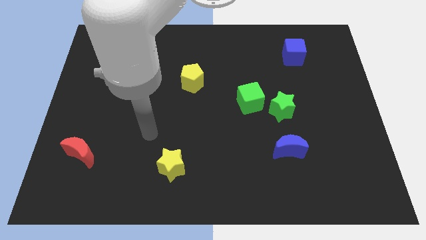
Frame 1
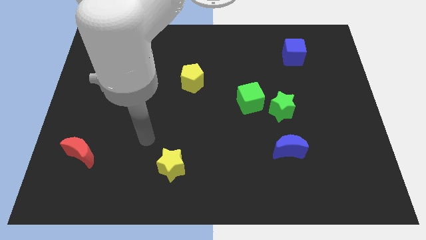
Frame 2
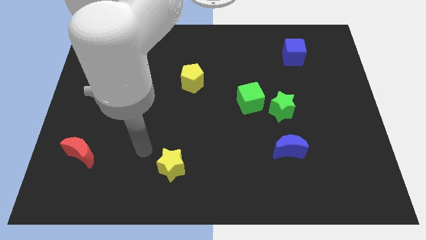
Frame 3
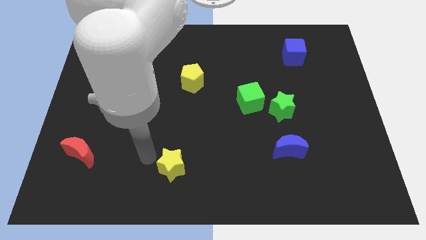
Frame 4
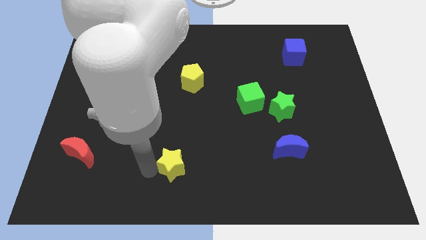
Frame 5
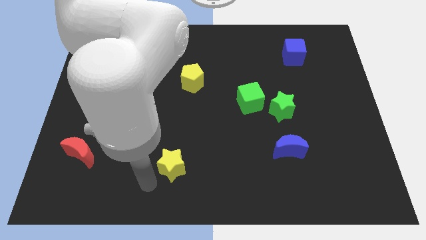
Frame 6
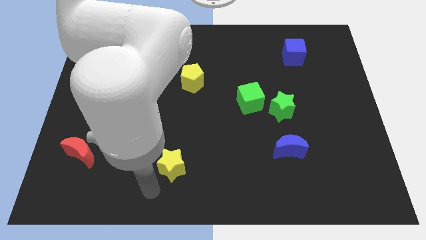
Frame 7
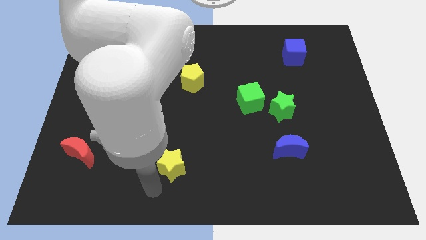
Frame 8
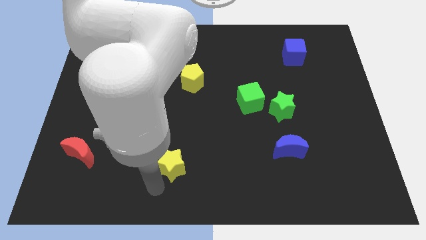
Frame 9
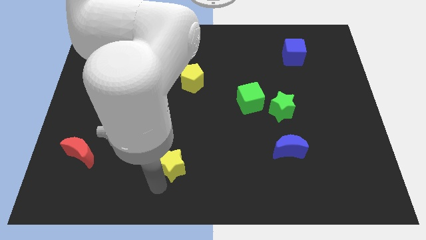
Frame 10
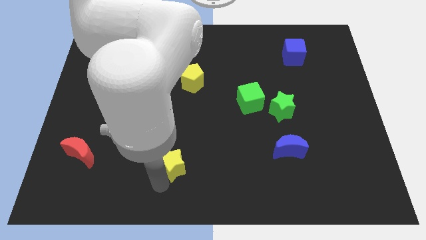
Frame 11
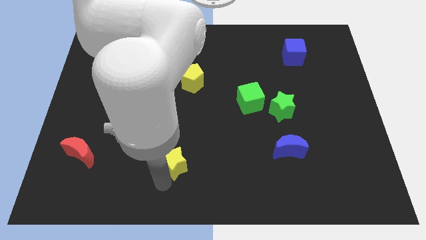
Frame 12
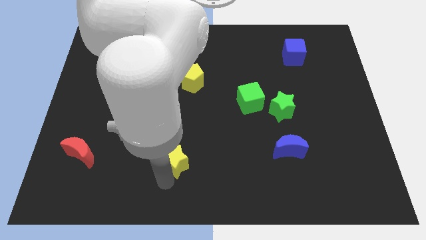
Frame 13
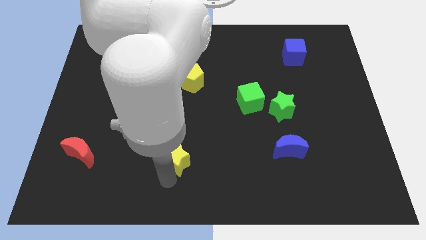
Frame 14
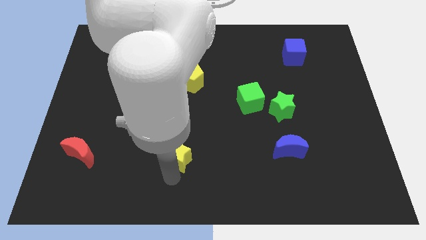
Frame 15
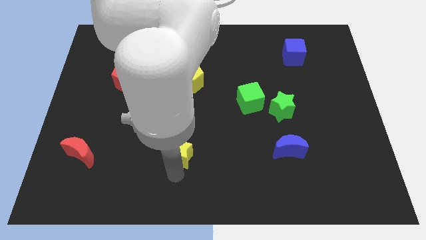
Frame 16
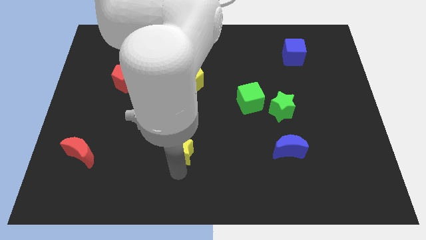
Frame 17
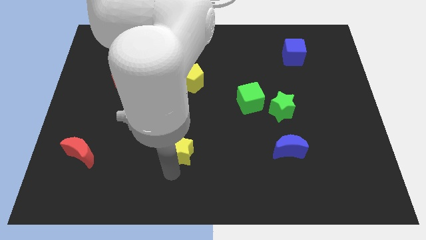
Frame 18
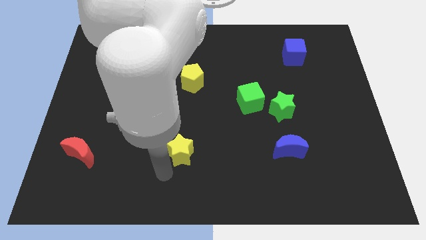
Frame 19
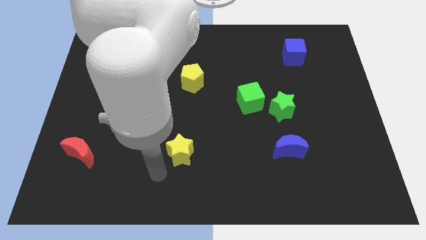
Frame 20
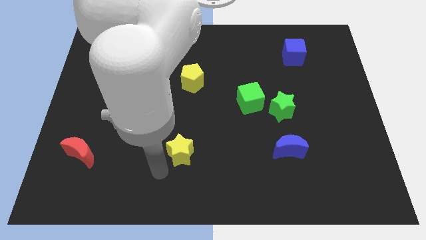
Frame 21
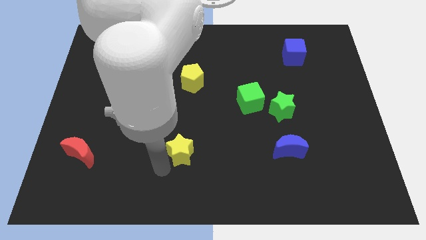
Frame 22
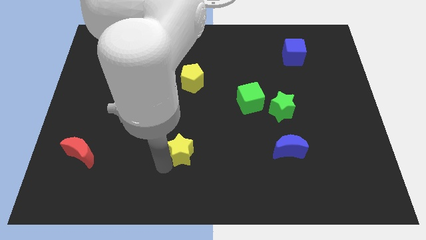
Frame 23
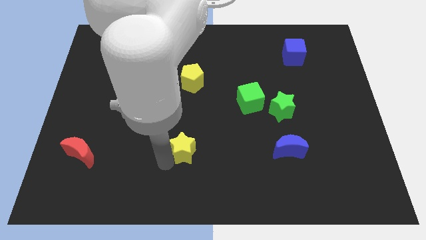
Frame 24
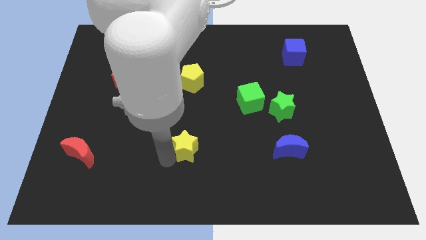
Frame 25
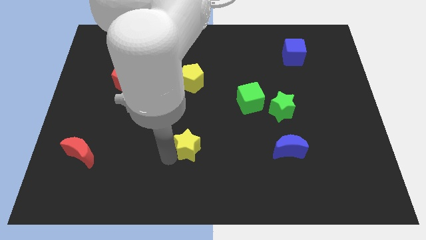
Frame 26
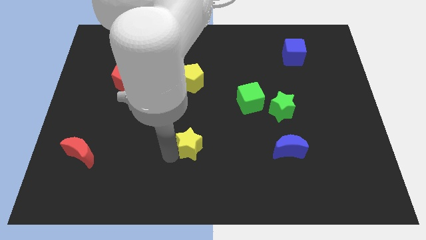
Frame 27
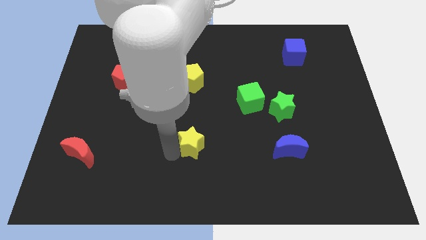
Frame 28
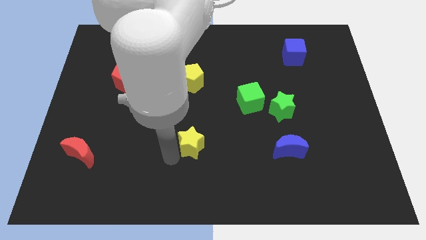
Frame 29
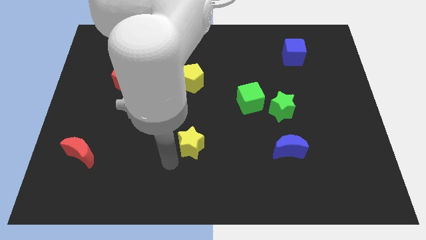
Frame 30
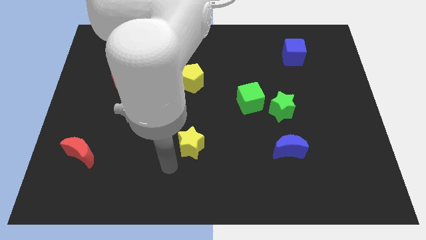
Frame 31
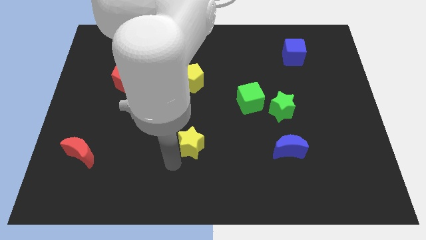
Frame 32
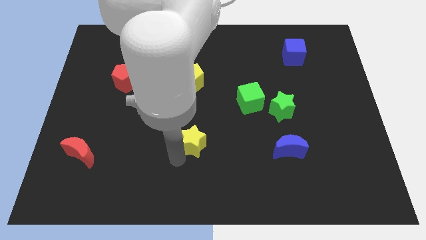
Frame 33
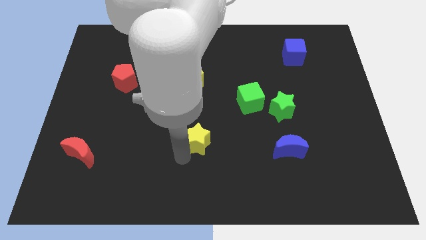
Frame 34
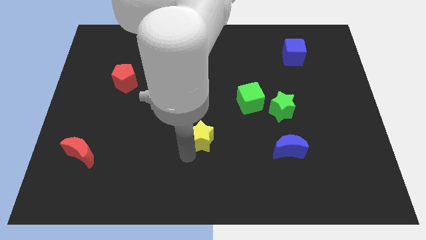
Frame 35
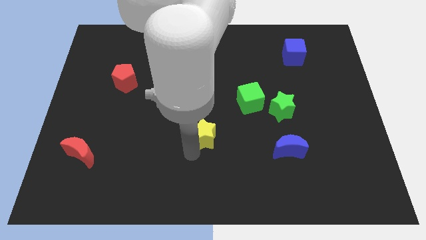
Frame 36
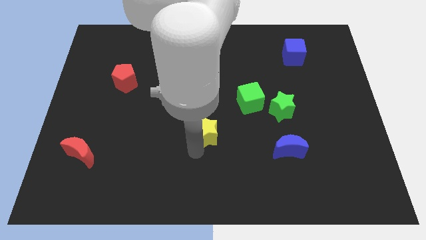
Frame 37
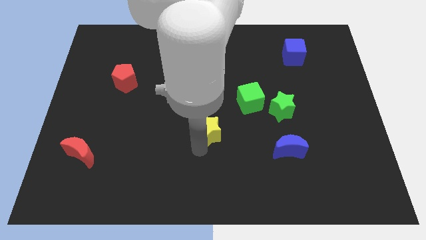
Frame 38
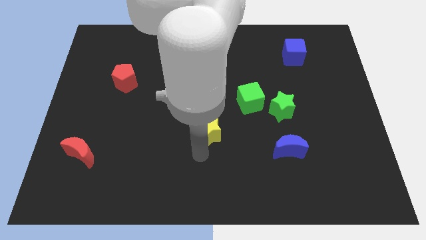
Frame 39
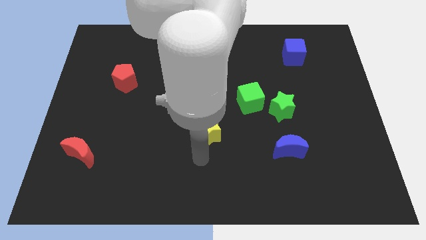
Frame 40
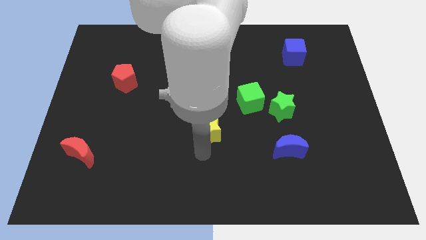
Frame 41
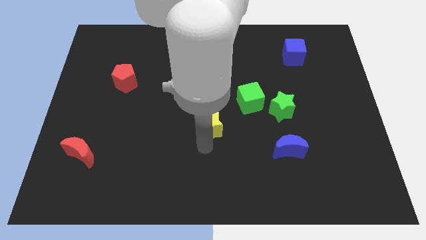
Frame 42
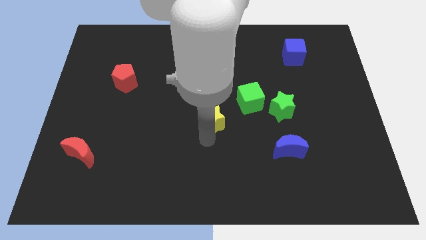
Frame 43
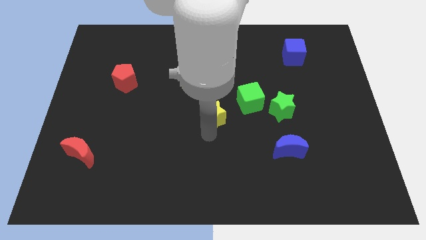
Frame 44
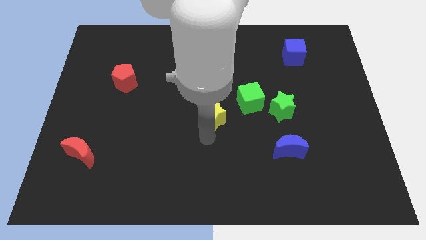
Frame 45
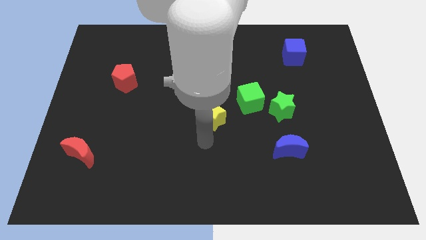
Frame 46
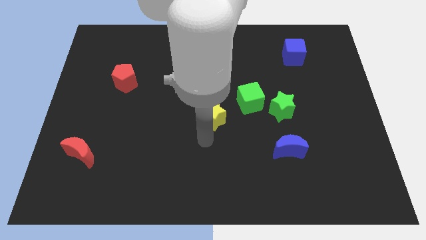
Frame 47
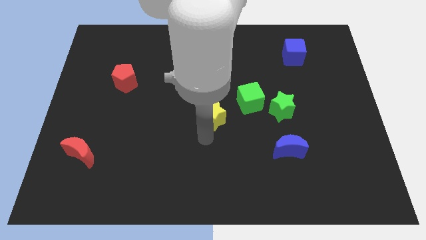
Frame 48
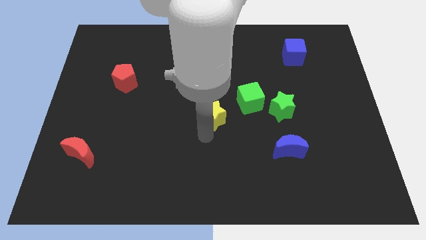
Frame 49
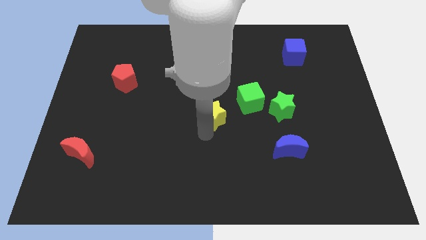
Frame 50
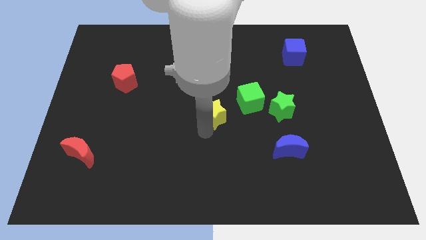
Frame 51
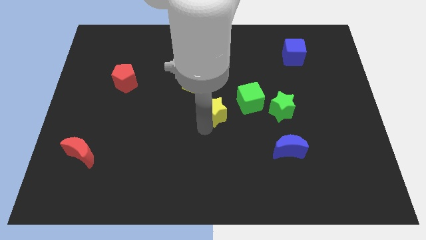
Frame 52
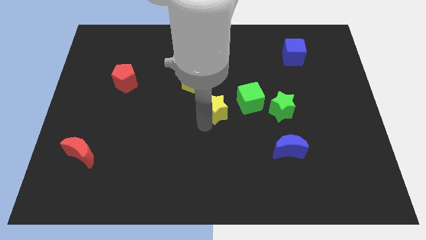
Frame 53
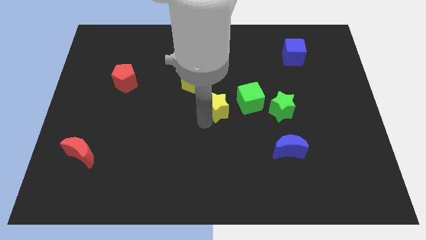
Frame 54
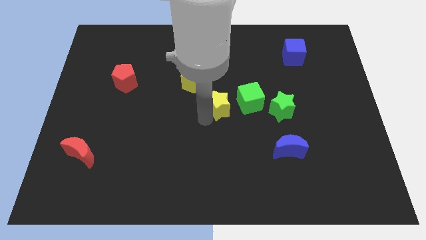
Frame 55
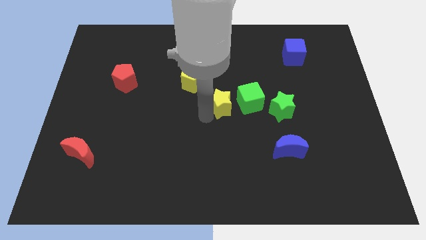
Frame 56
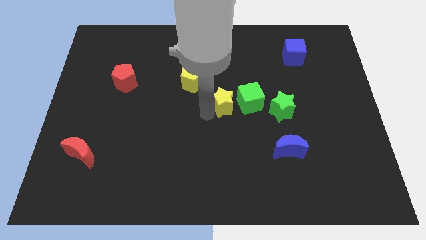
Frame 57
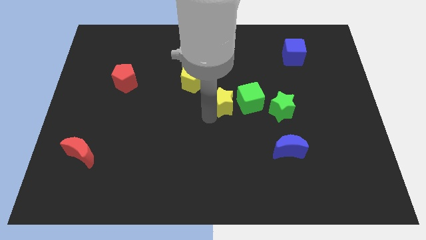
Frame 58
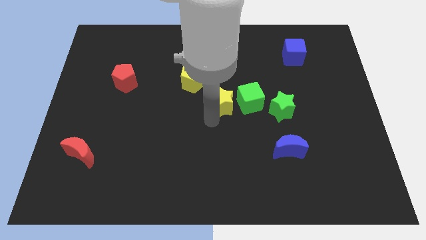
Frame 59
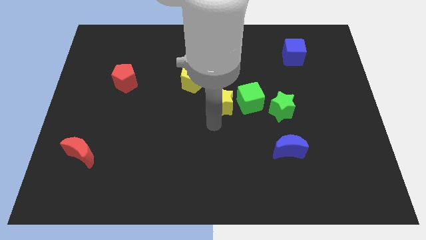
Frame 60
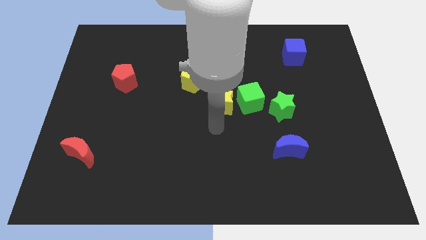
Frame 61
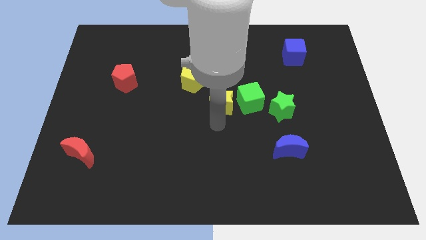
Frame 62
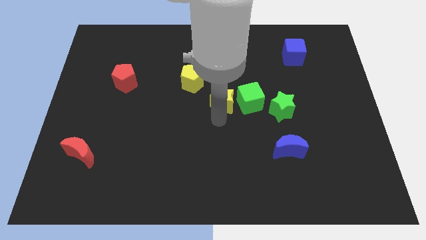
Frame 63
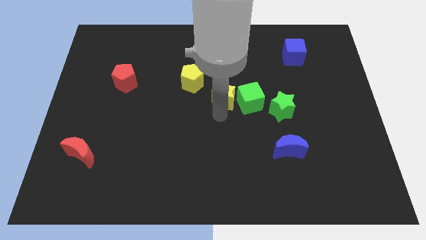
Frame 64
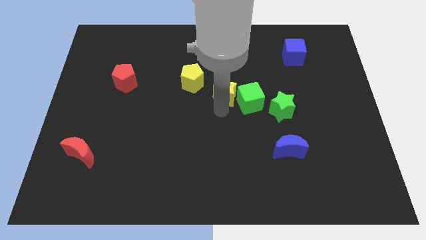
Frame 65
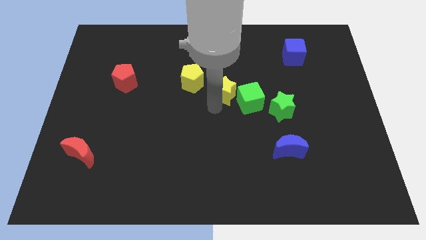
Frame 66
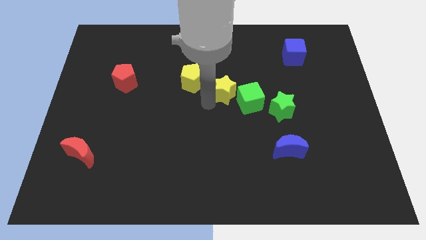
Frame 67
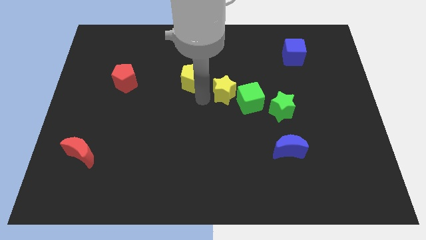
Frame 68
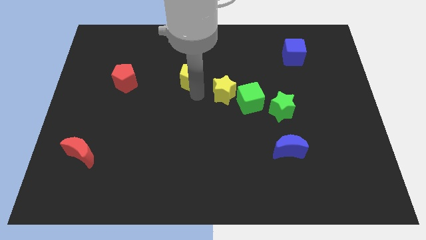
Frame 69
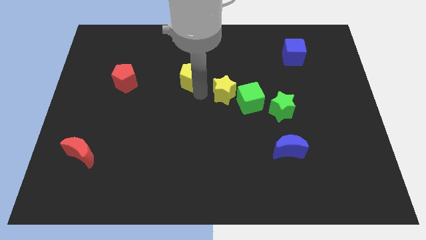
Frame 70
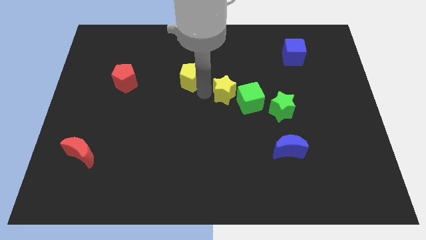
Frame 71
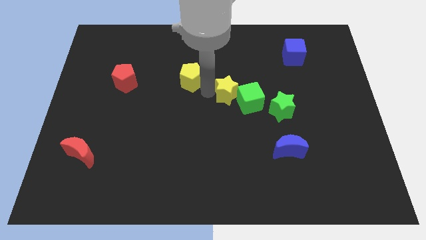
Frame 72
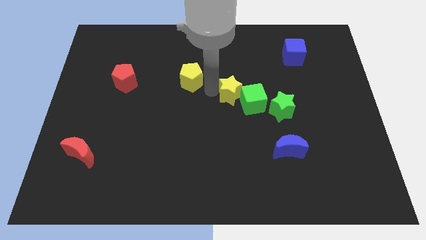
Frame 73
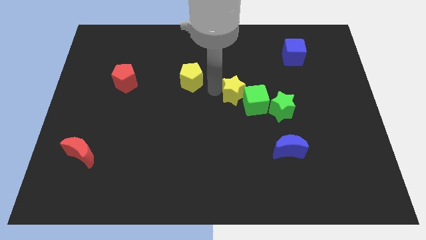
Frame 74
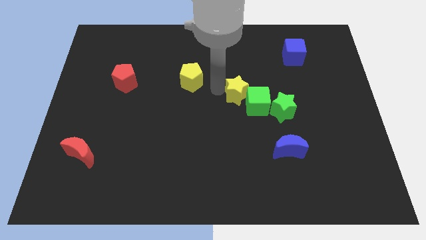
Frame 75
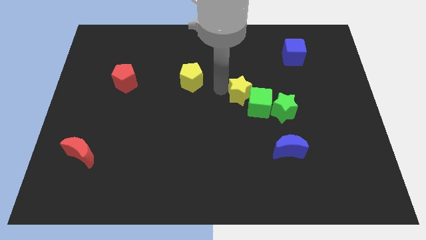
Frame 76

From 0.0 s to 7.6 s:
push the yellow star diagonally up and to the left of the green star
